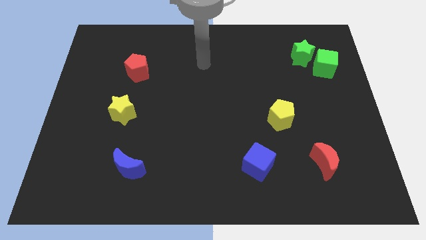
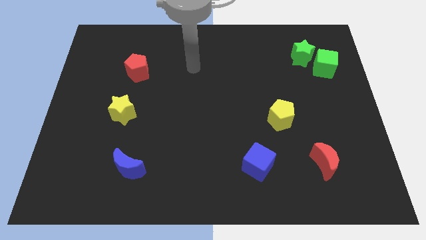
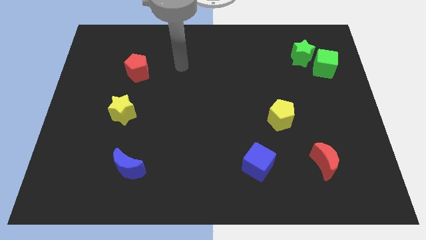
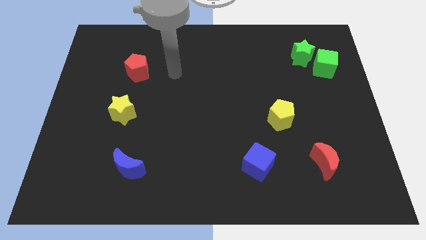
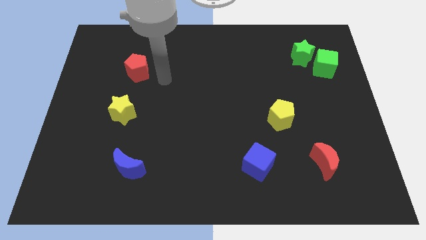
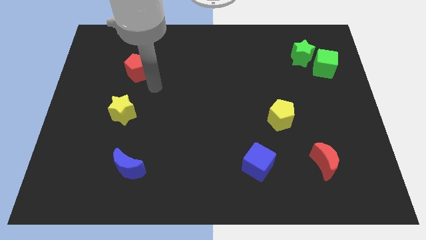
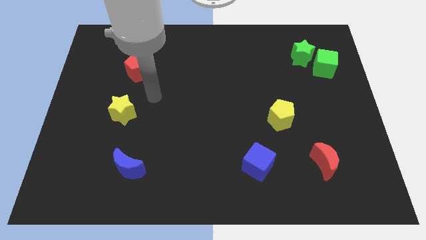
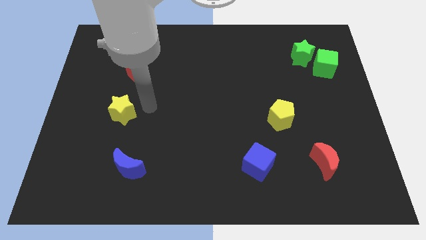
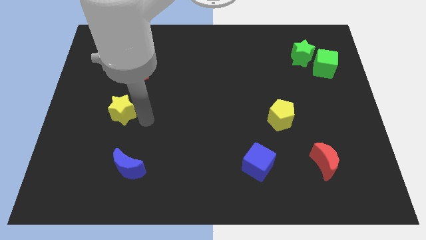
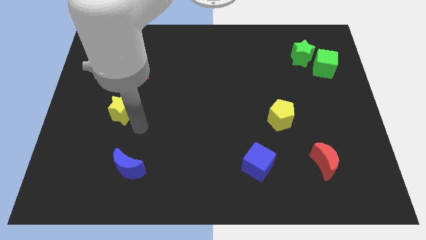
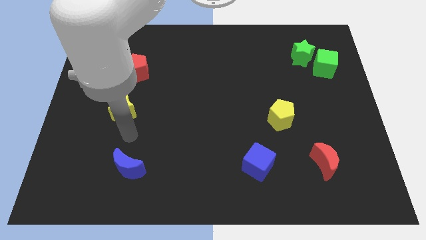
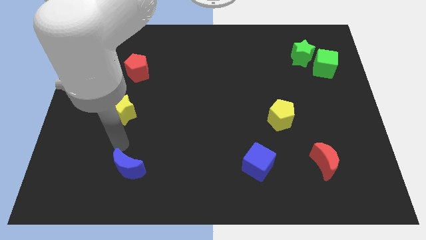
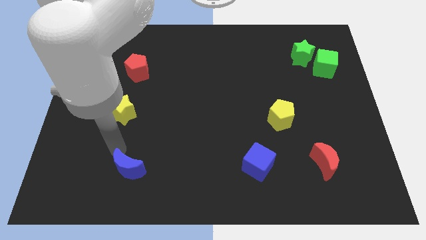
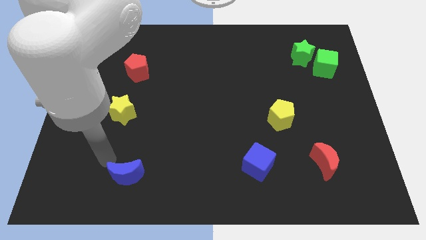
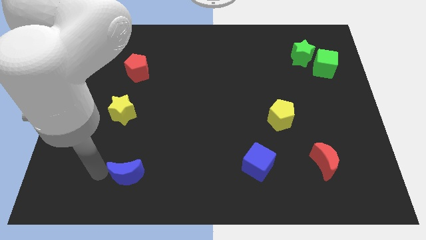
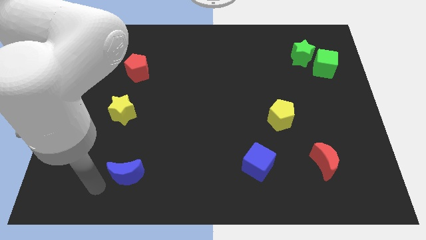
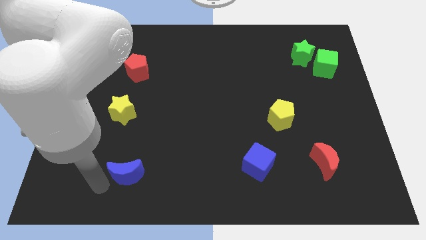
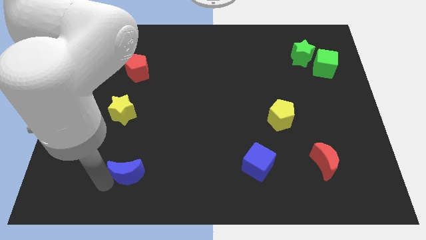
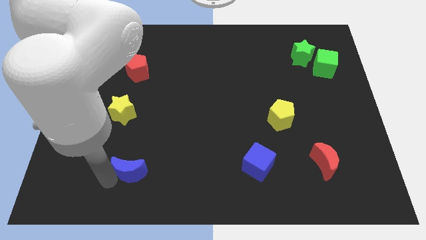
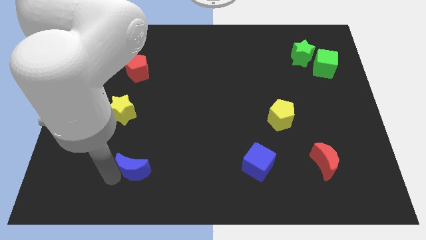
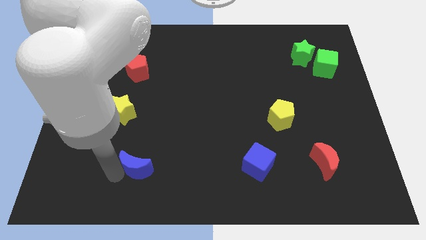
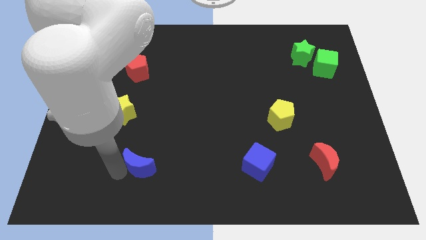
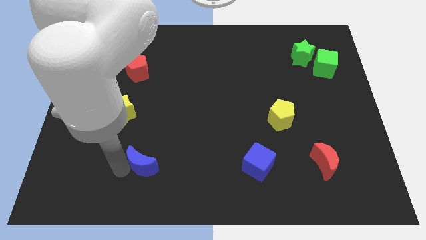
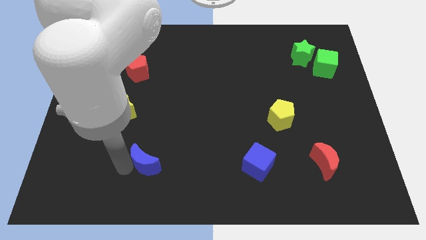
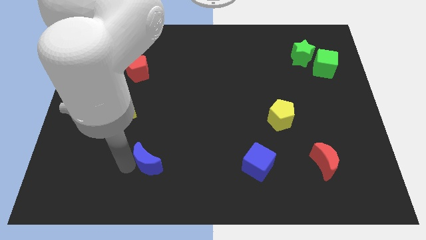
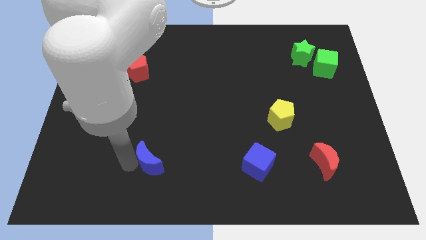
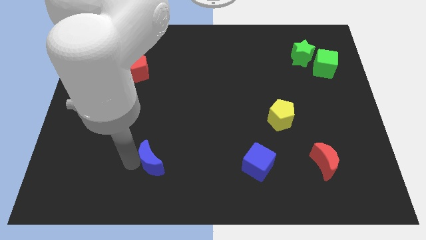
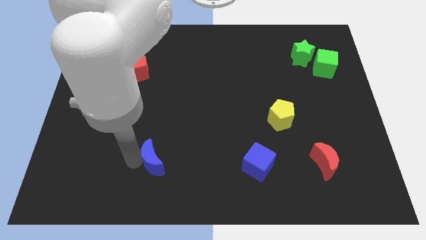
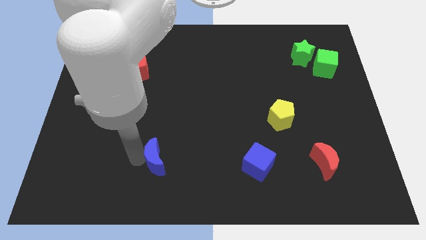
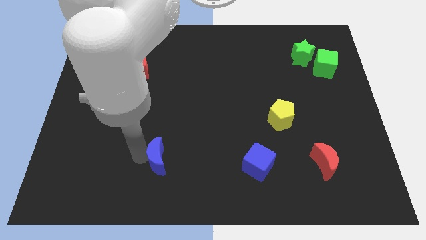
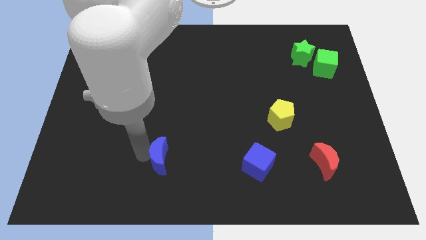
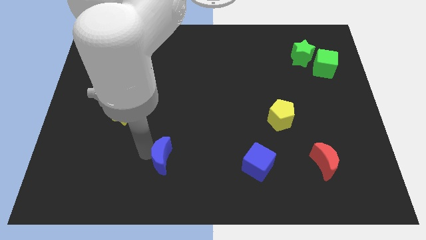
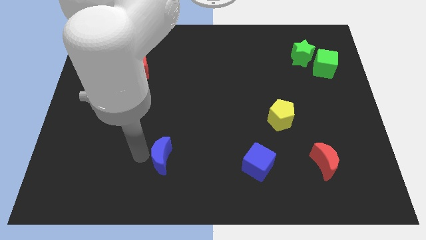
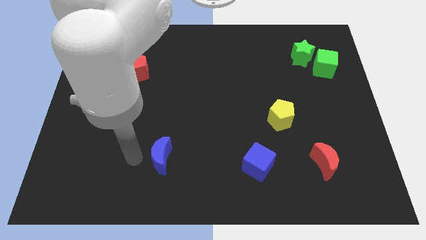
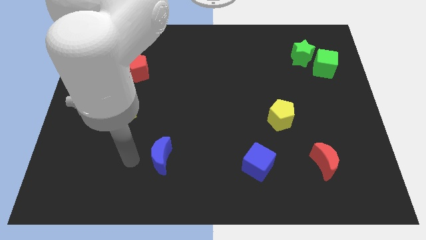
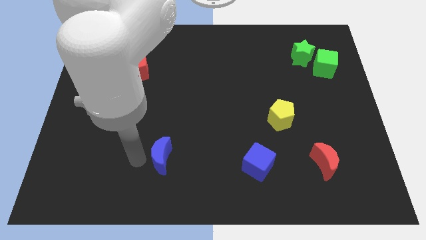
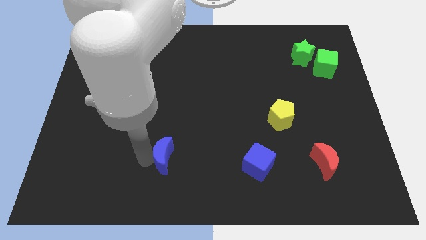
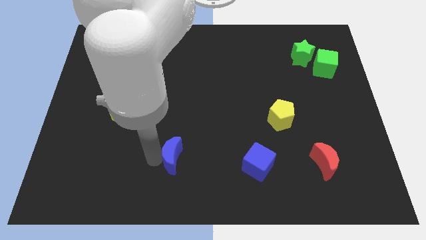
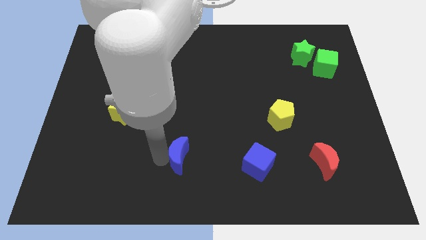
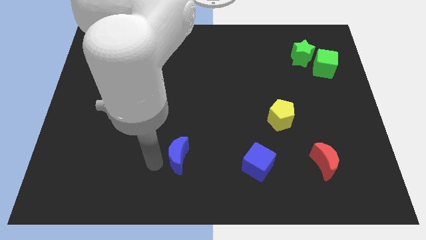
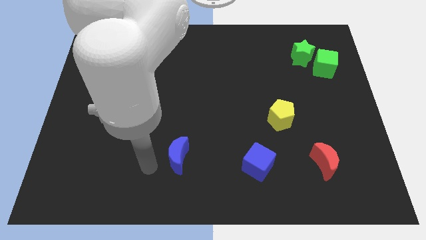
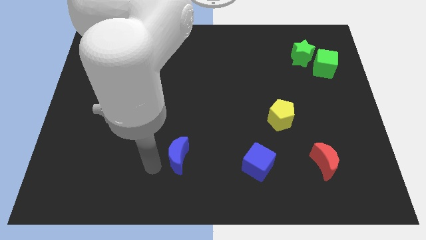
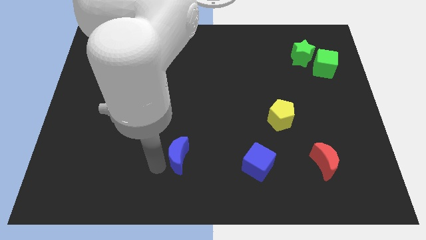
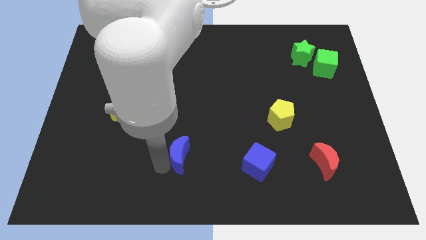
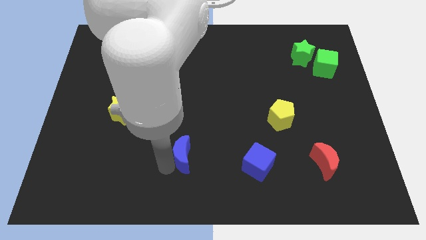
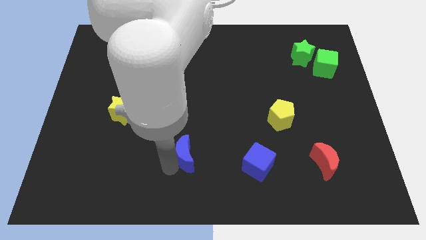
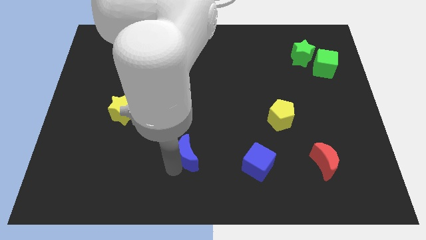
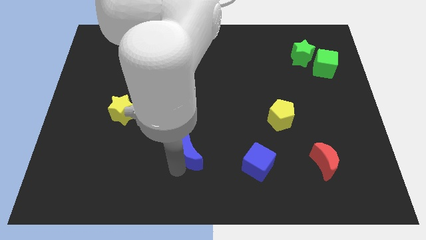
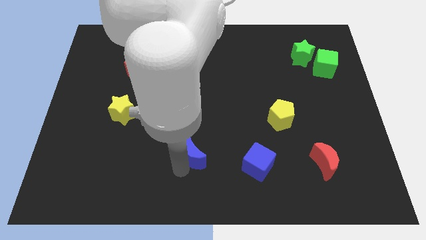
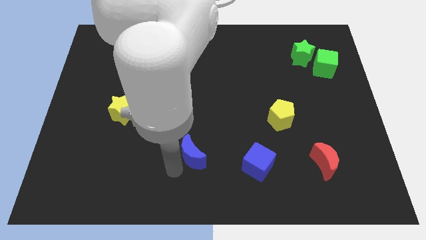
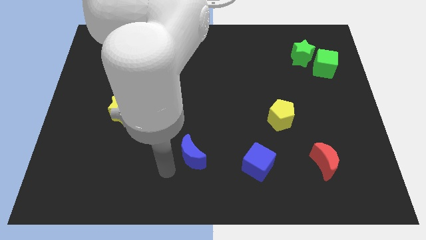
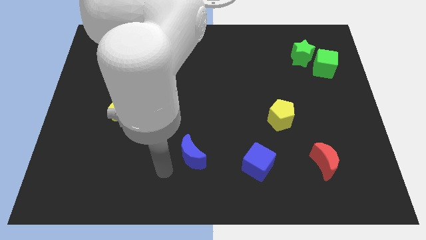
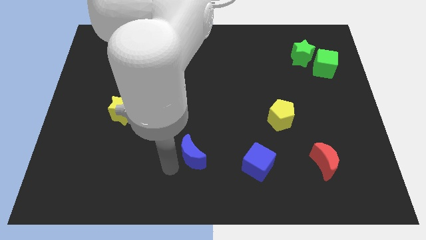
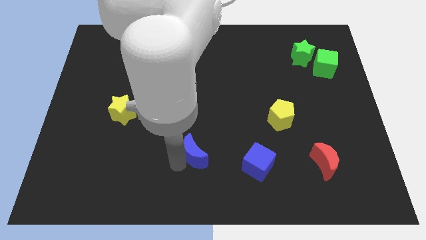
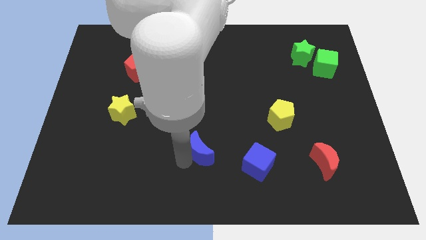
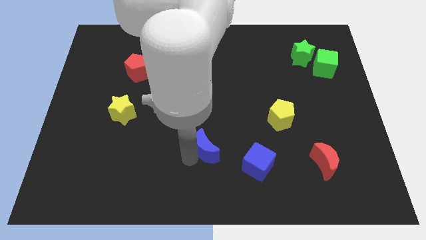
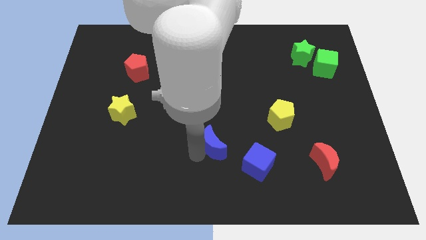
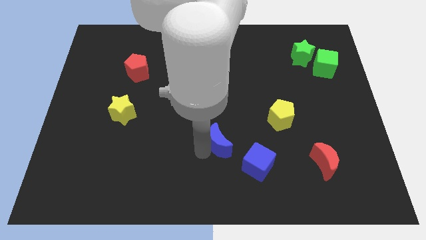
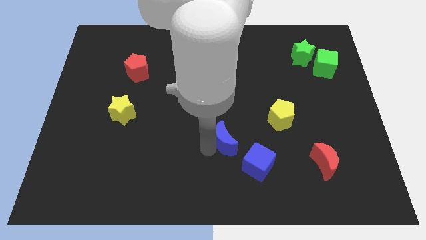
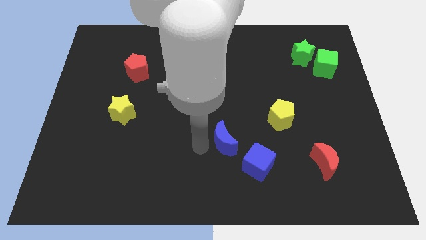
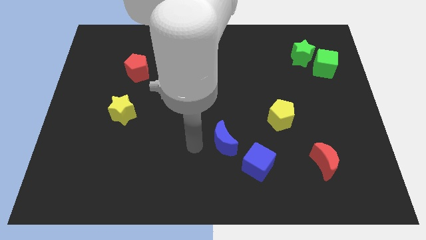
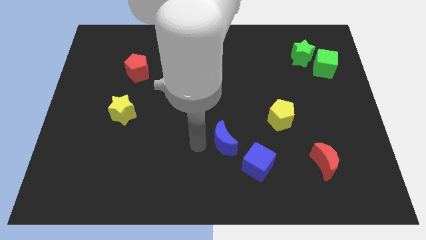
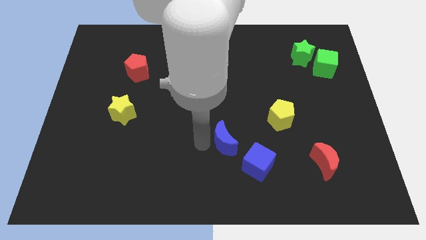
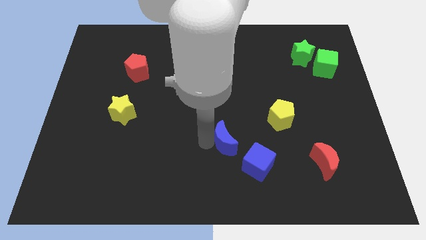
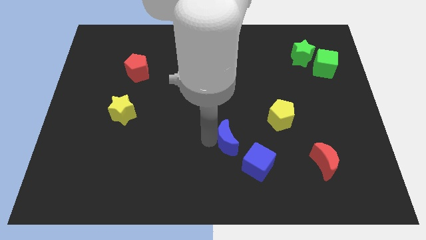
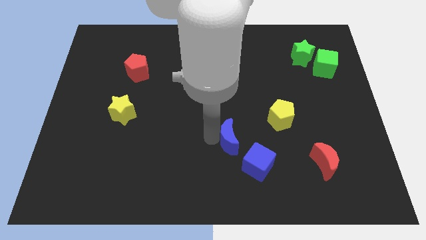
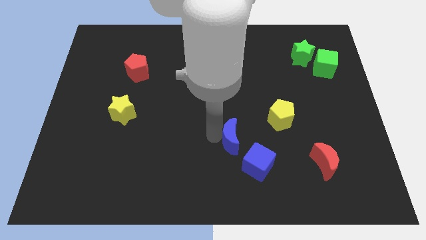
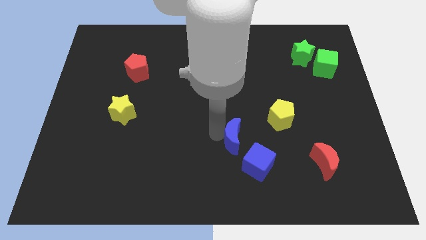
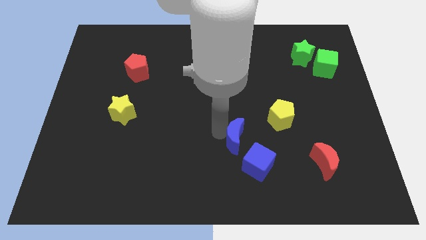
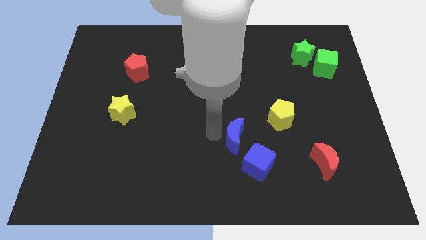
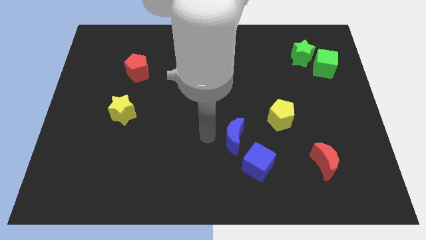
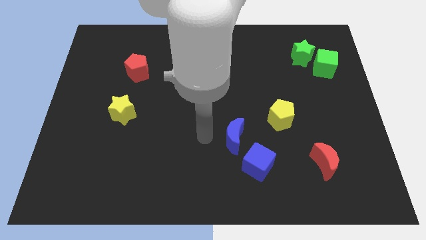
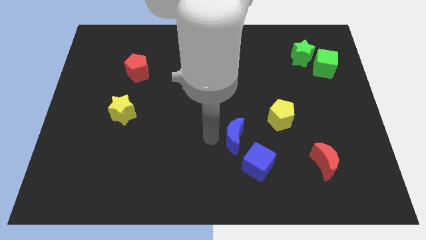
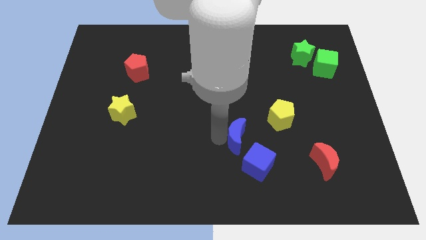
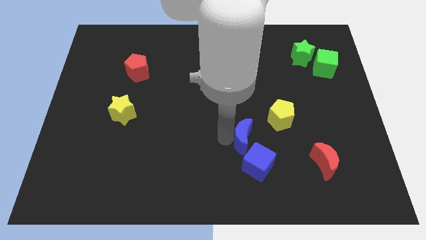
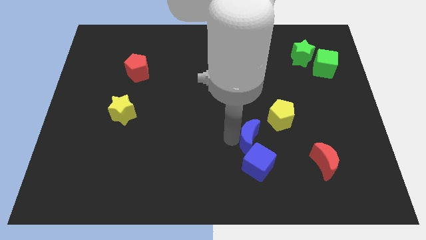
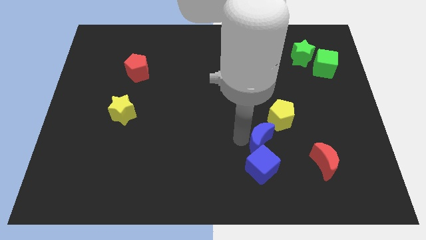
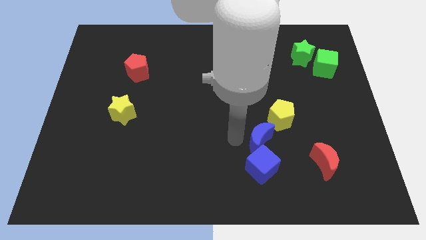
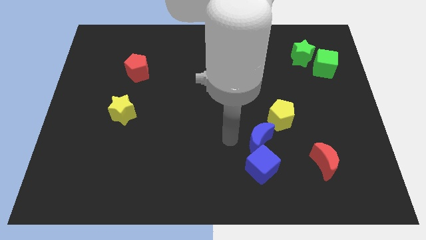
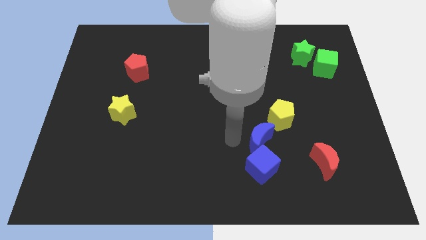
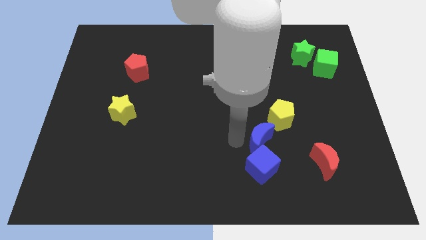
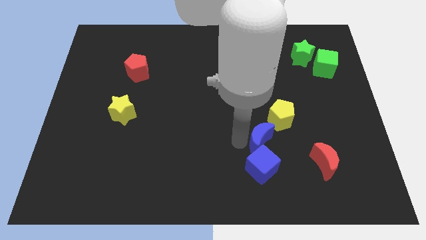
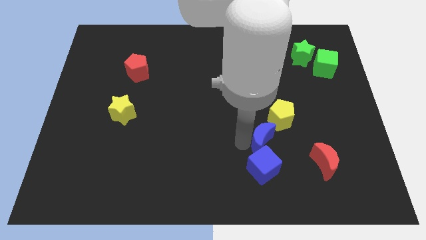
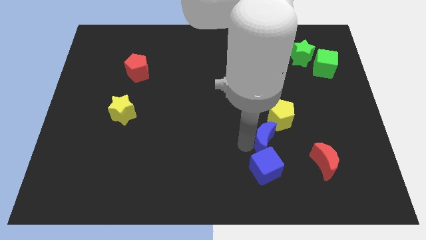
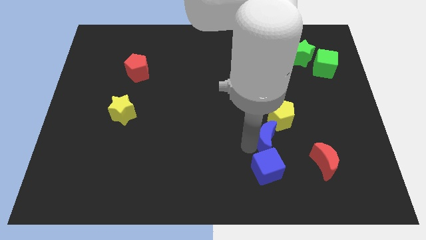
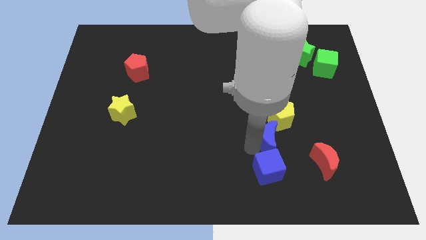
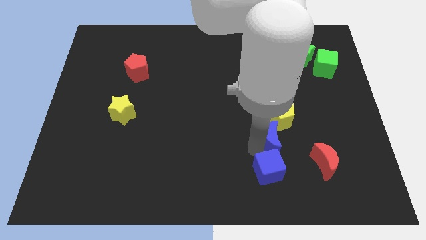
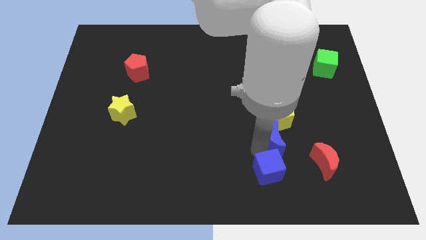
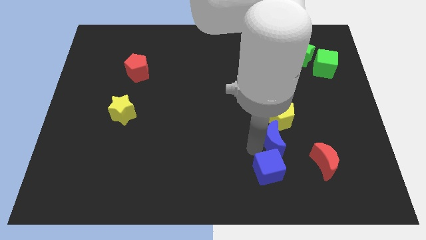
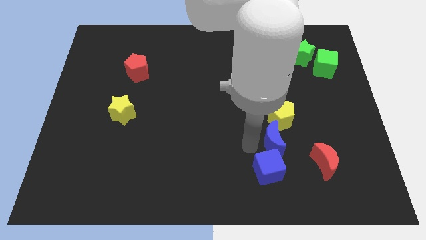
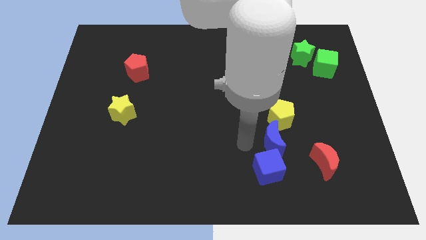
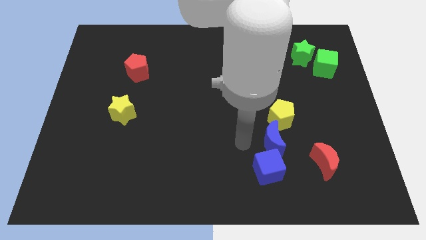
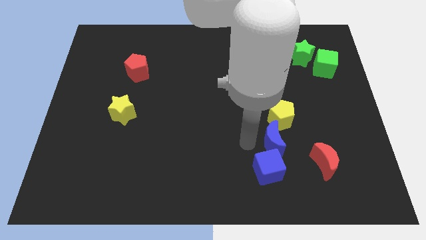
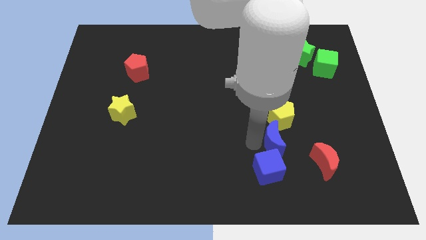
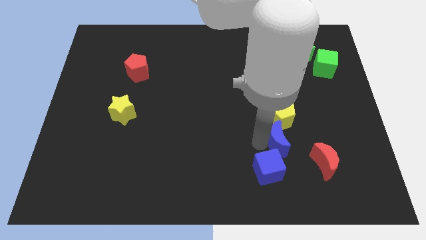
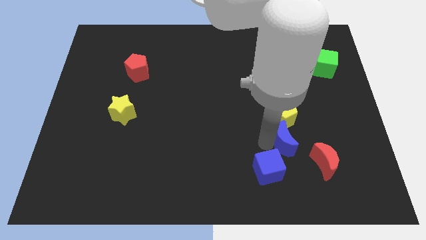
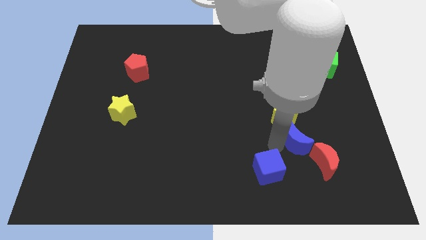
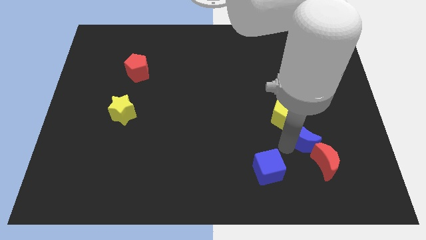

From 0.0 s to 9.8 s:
push the blue moon to the top side of the red moon
